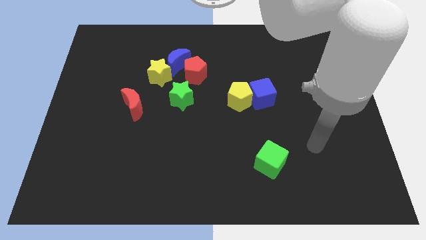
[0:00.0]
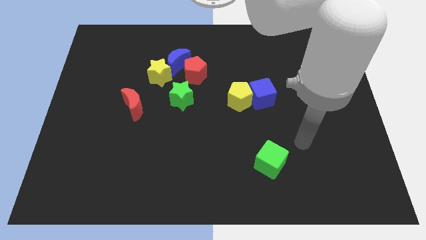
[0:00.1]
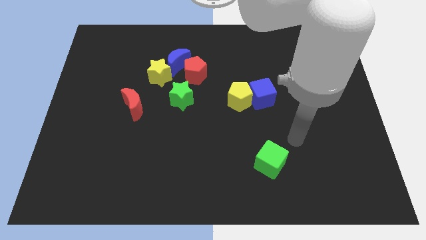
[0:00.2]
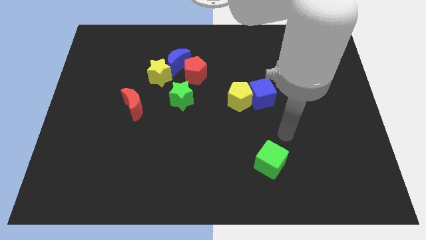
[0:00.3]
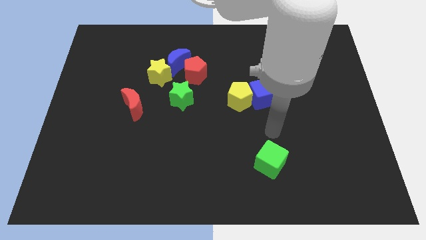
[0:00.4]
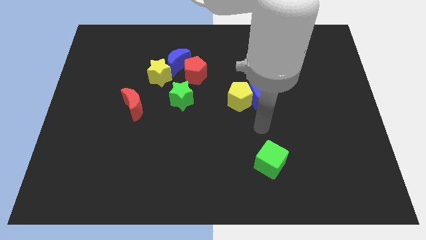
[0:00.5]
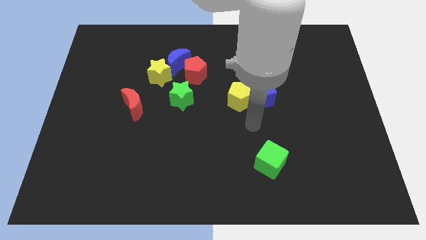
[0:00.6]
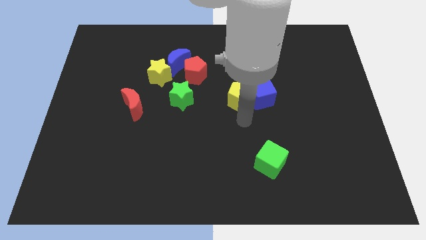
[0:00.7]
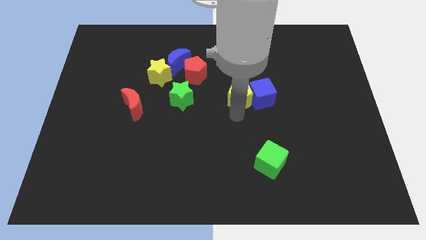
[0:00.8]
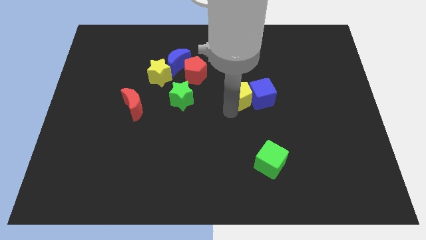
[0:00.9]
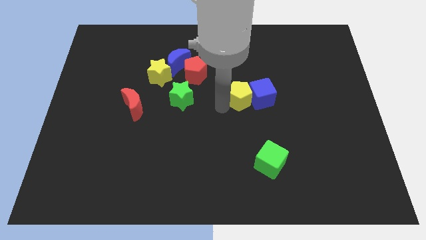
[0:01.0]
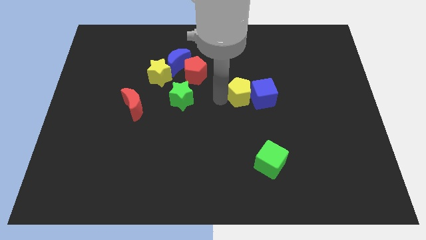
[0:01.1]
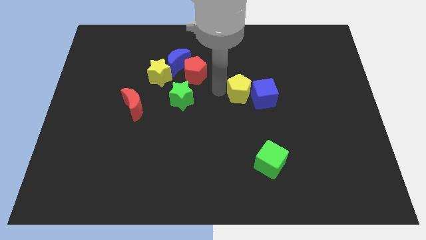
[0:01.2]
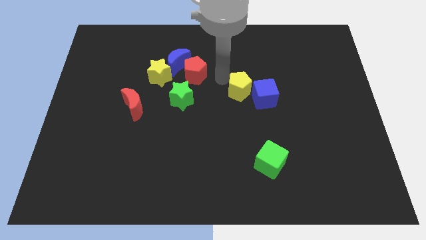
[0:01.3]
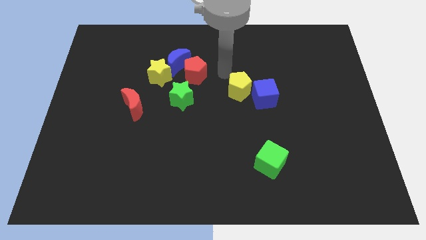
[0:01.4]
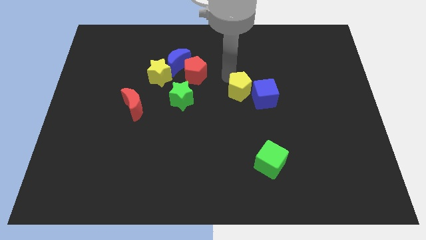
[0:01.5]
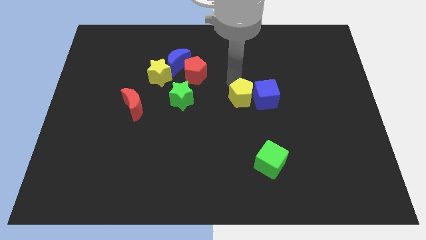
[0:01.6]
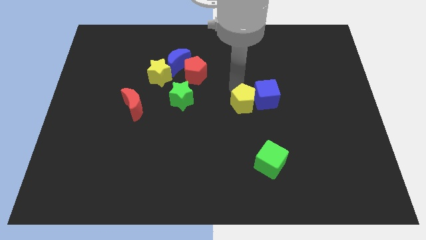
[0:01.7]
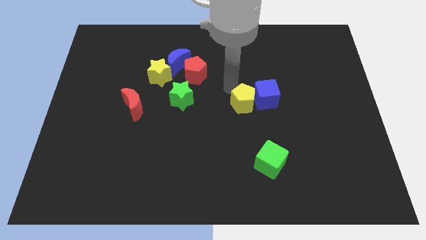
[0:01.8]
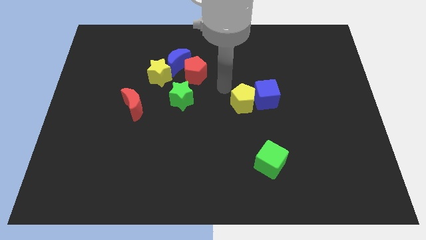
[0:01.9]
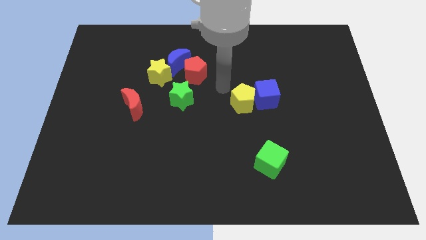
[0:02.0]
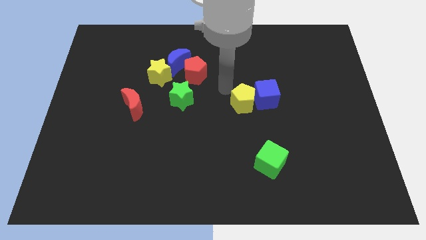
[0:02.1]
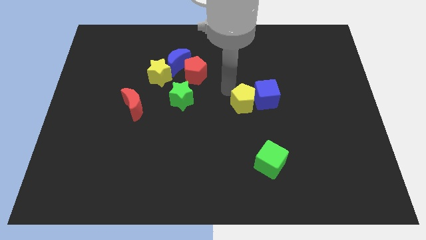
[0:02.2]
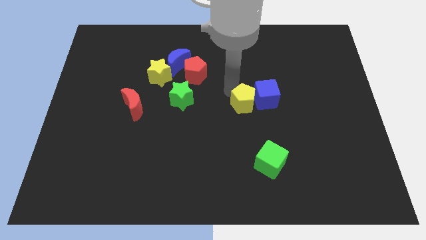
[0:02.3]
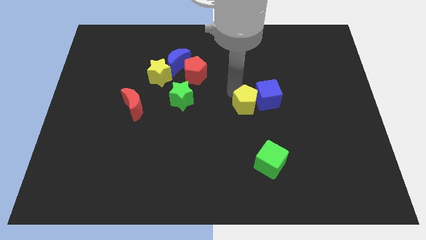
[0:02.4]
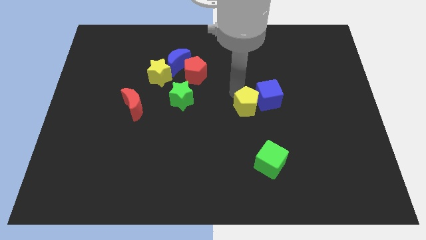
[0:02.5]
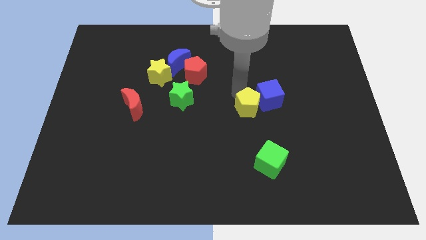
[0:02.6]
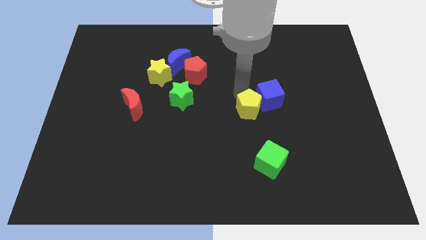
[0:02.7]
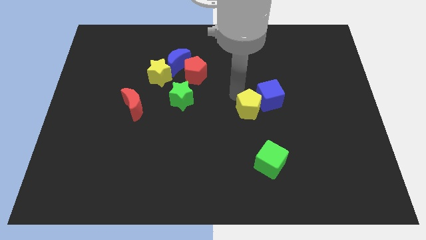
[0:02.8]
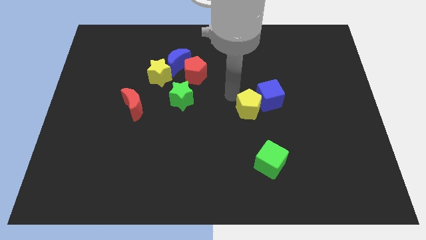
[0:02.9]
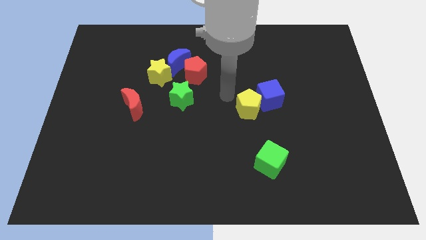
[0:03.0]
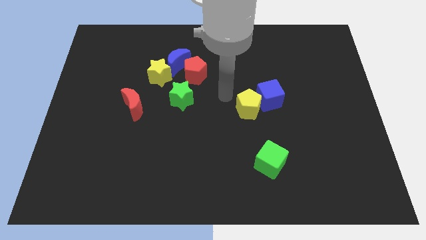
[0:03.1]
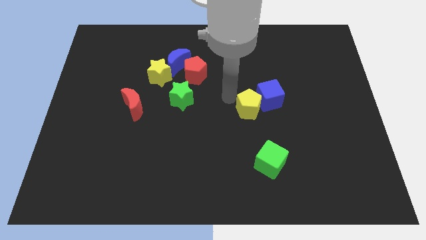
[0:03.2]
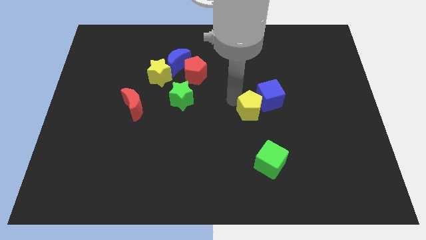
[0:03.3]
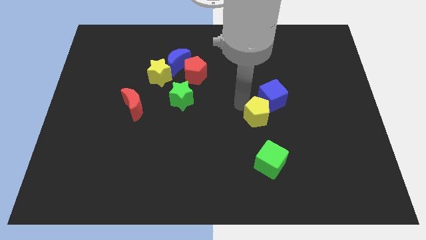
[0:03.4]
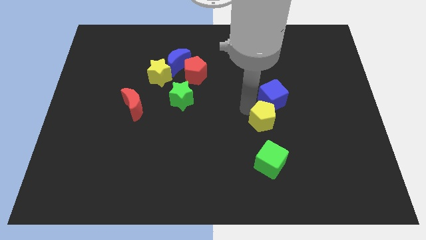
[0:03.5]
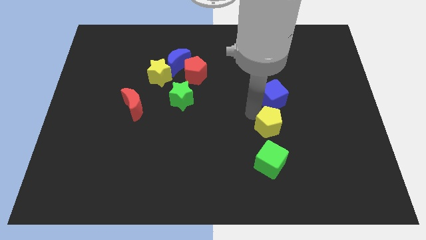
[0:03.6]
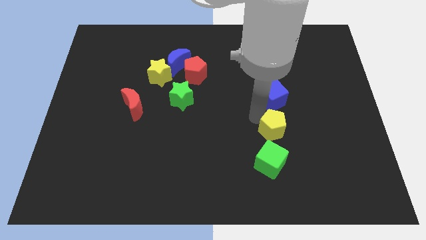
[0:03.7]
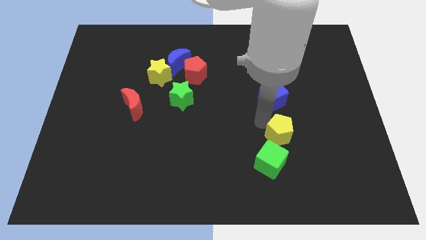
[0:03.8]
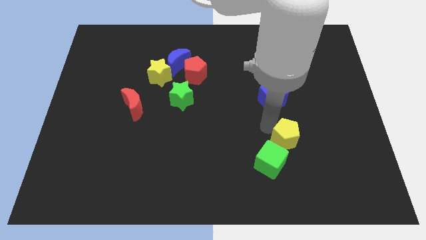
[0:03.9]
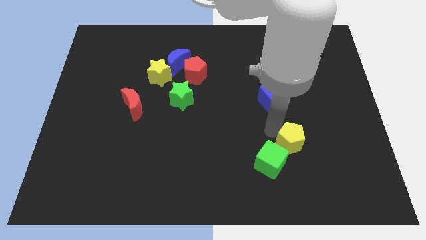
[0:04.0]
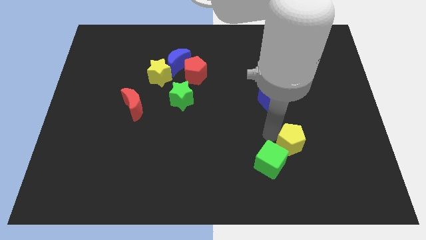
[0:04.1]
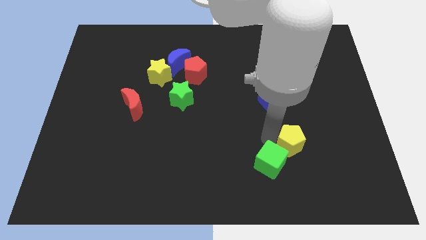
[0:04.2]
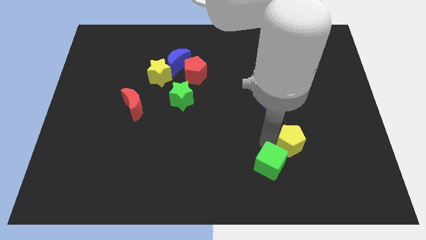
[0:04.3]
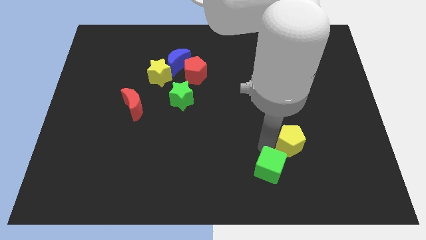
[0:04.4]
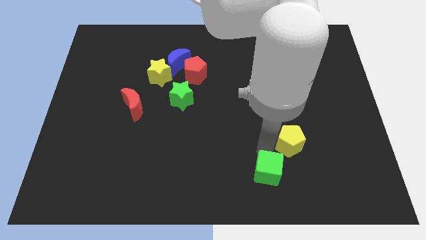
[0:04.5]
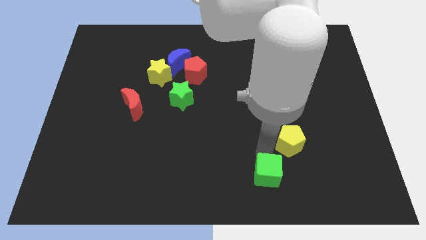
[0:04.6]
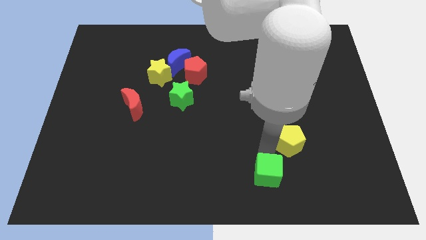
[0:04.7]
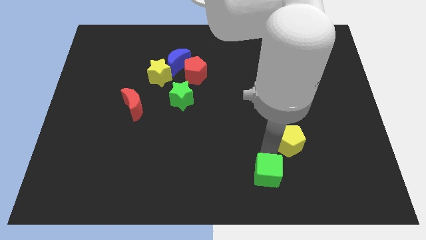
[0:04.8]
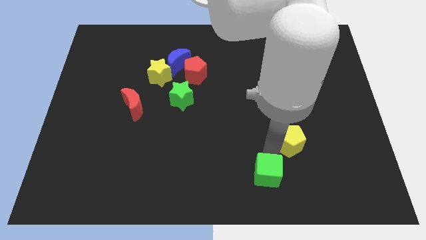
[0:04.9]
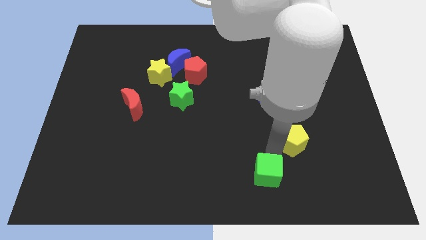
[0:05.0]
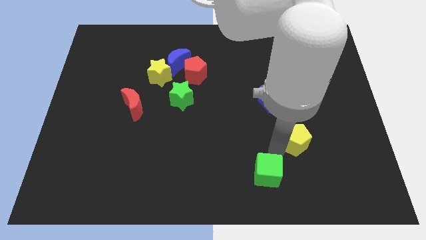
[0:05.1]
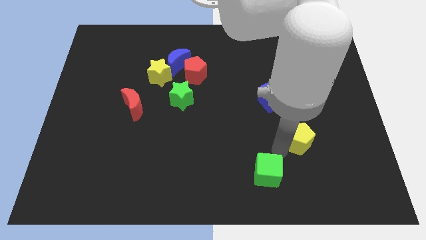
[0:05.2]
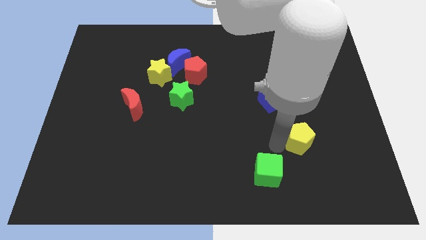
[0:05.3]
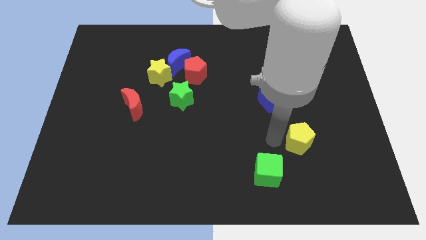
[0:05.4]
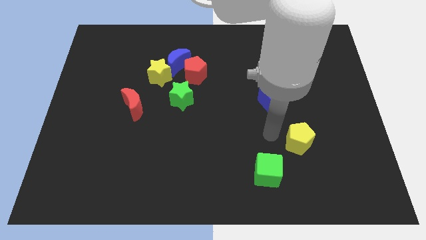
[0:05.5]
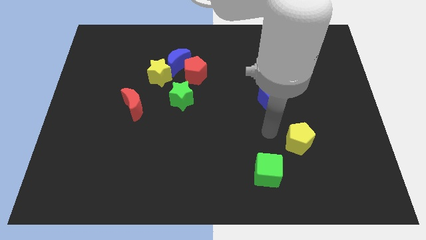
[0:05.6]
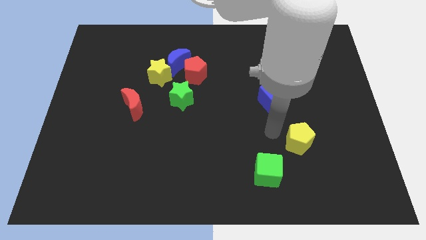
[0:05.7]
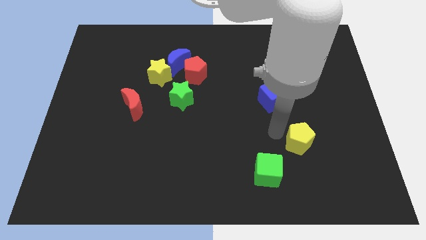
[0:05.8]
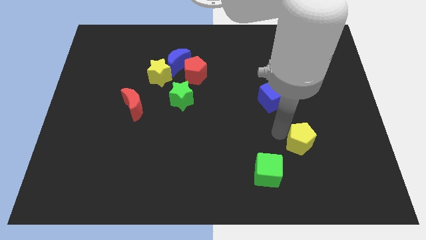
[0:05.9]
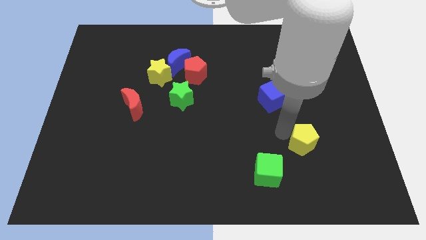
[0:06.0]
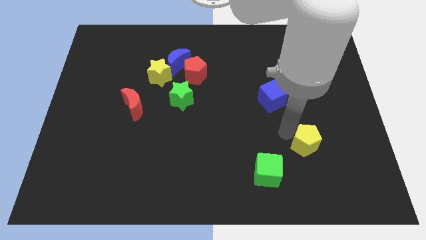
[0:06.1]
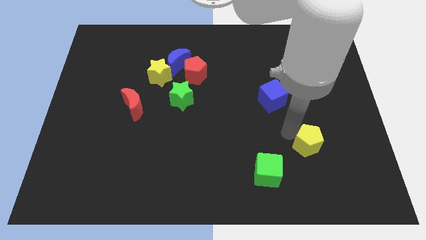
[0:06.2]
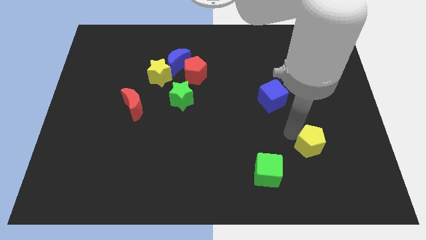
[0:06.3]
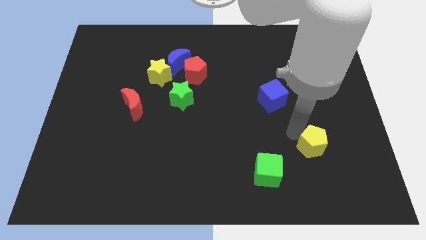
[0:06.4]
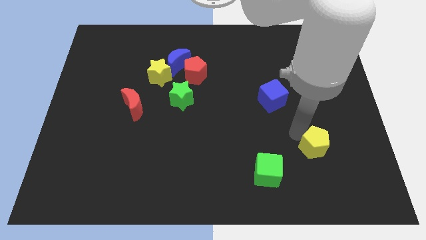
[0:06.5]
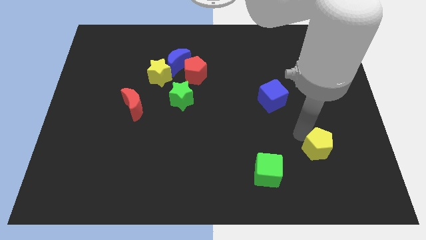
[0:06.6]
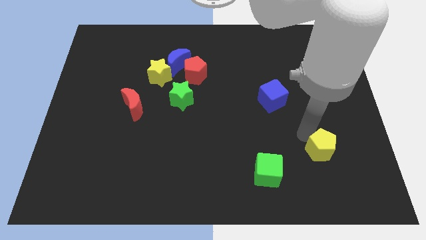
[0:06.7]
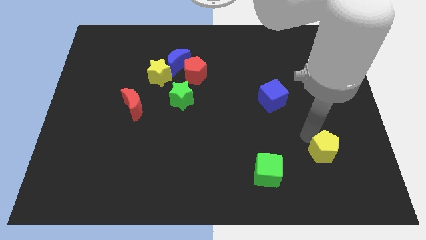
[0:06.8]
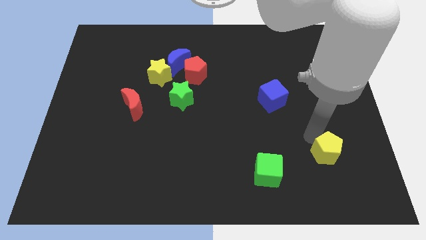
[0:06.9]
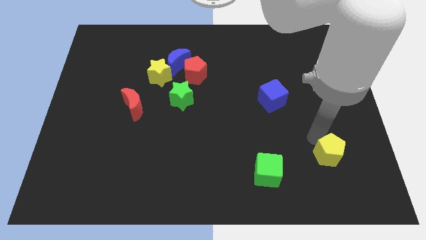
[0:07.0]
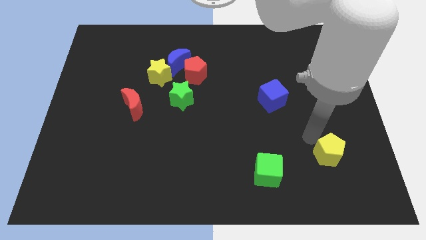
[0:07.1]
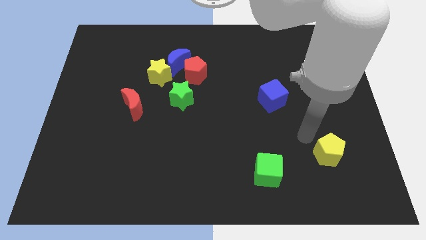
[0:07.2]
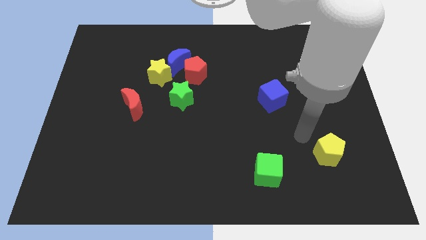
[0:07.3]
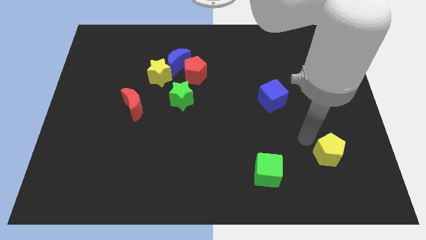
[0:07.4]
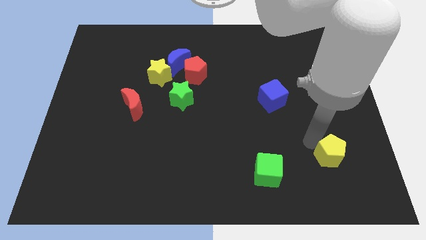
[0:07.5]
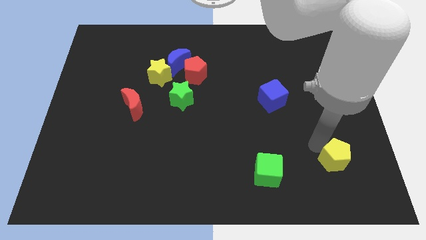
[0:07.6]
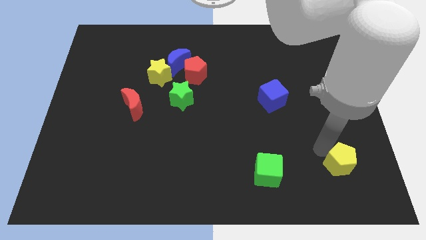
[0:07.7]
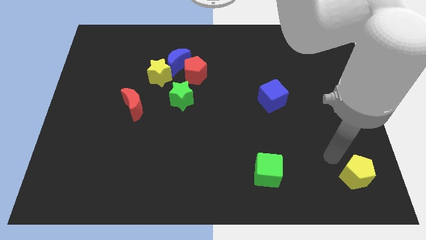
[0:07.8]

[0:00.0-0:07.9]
push the yellow pentagon to the bottom right
